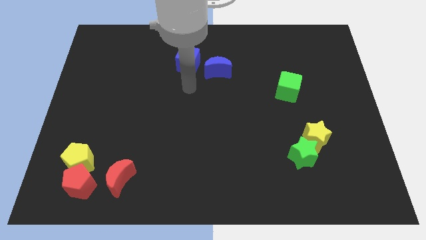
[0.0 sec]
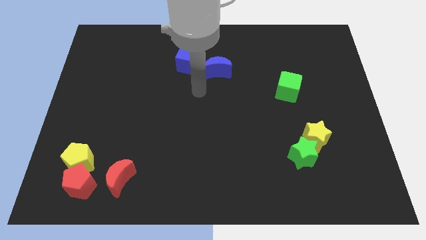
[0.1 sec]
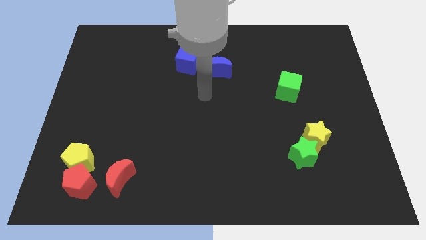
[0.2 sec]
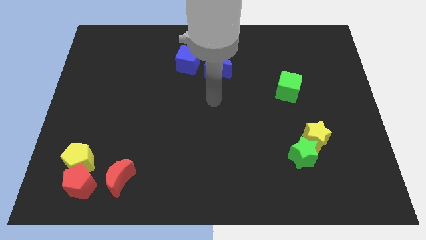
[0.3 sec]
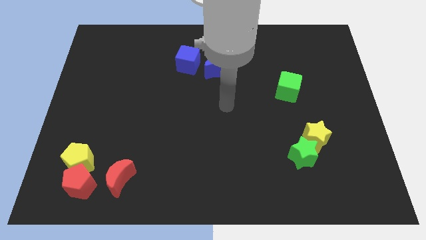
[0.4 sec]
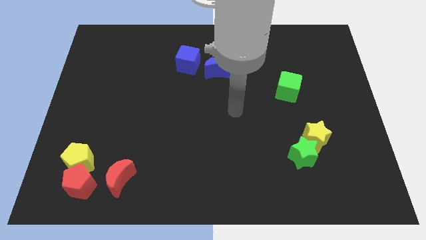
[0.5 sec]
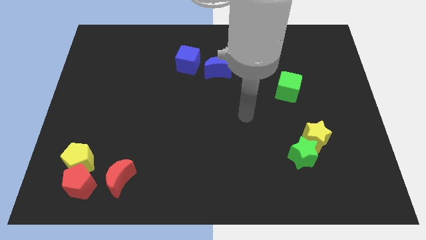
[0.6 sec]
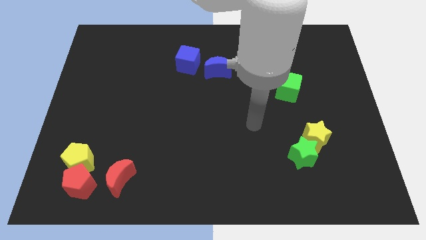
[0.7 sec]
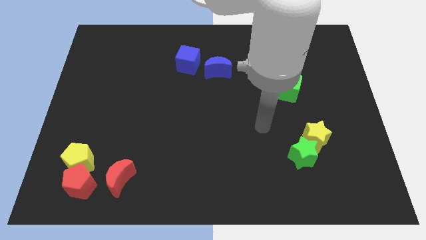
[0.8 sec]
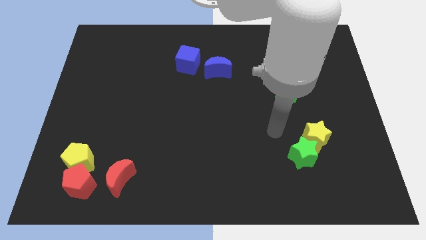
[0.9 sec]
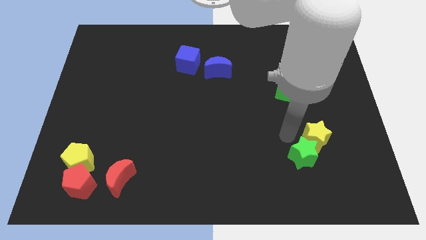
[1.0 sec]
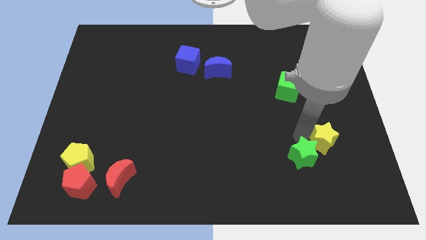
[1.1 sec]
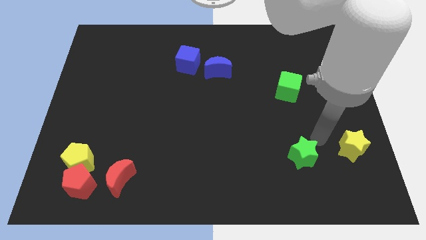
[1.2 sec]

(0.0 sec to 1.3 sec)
pull the green star apart from the yellow star

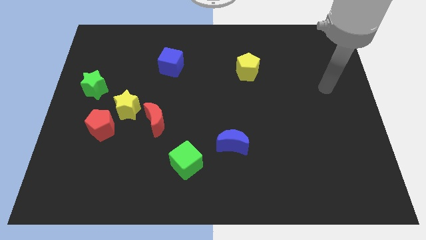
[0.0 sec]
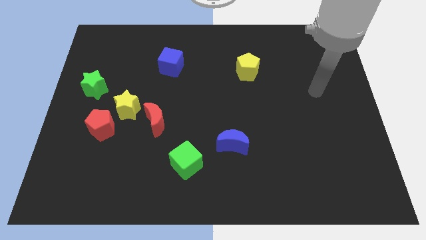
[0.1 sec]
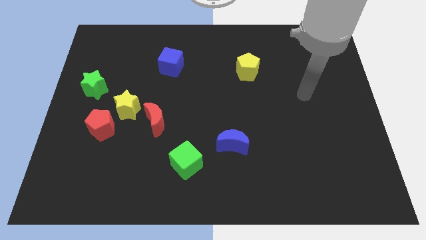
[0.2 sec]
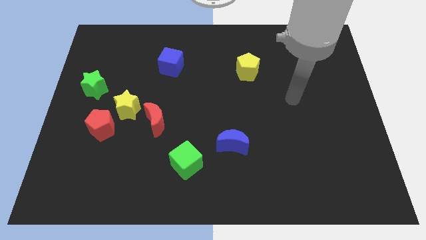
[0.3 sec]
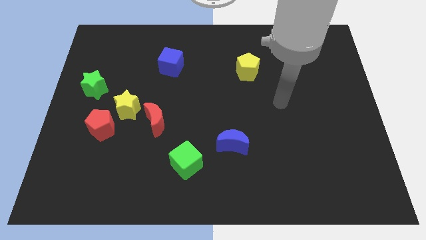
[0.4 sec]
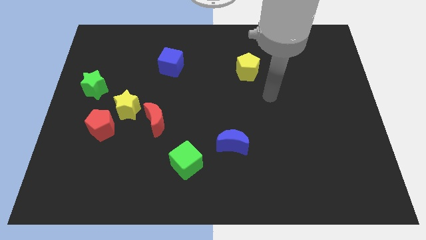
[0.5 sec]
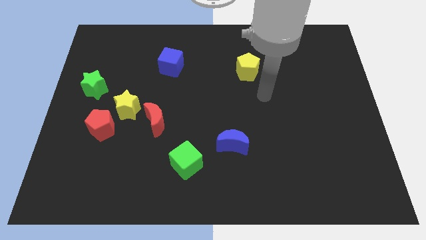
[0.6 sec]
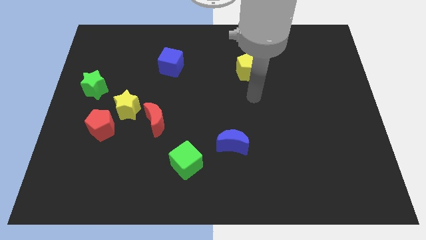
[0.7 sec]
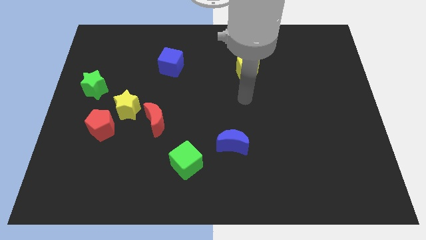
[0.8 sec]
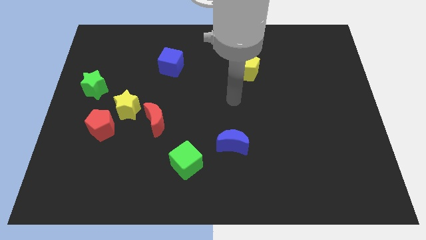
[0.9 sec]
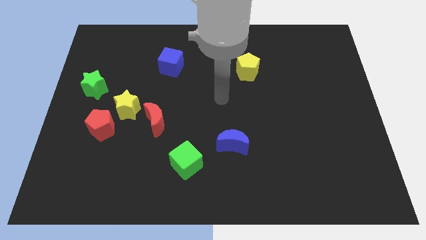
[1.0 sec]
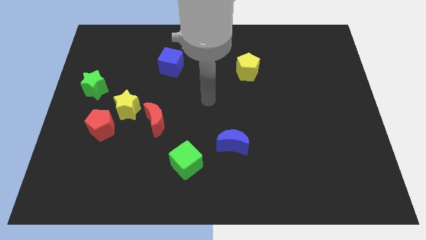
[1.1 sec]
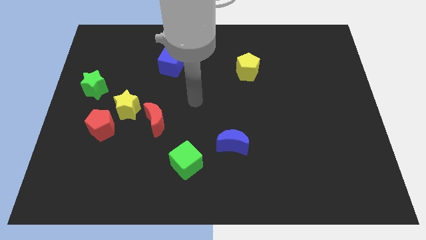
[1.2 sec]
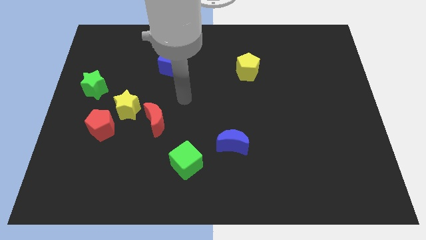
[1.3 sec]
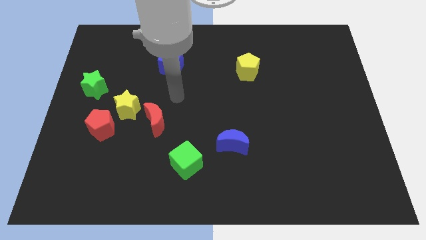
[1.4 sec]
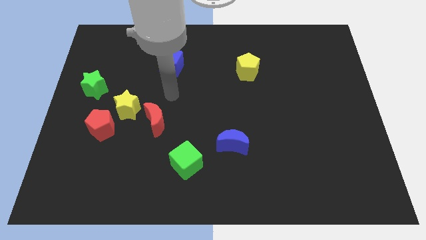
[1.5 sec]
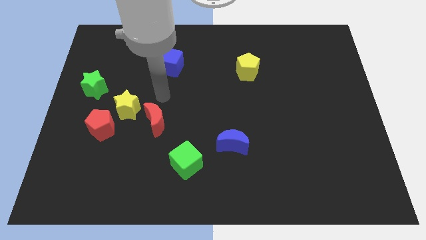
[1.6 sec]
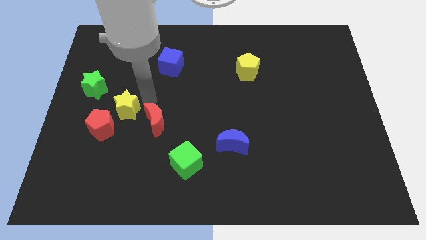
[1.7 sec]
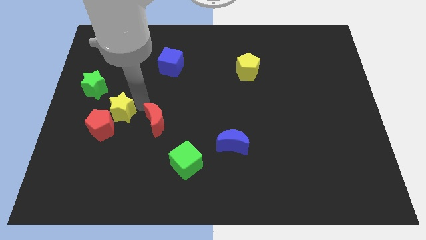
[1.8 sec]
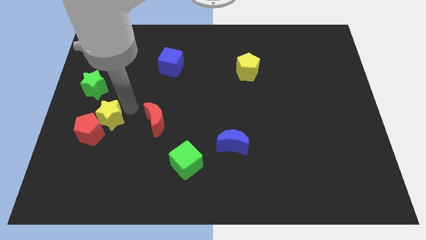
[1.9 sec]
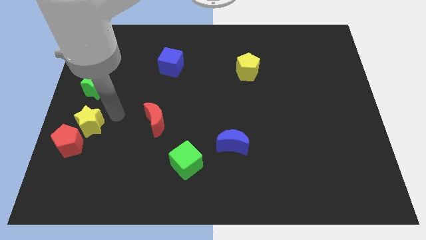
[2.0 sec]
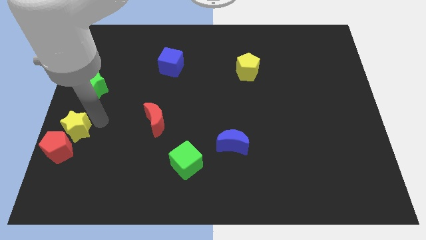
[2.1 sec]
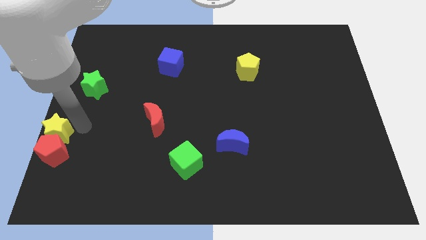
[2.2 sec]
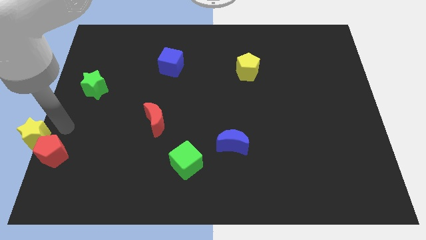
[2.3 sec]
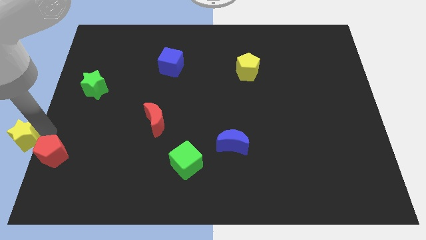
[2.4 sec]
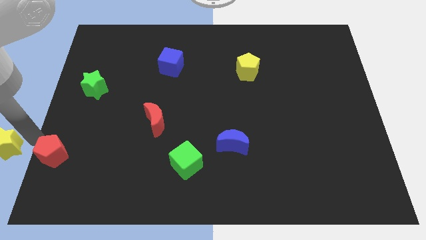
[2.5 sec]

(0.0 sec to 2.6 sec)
pull the red pentagon apart from the yellow star

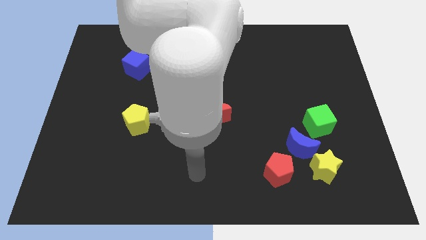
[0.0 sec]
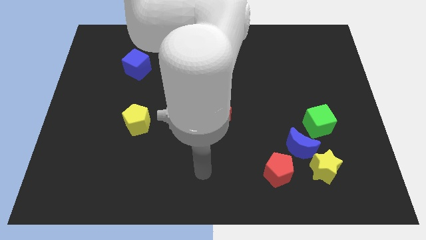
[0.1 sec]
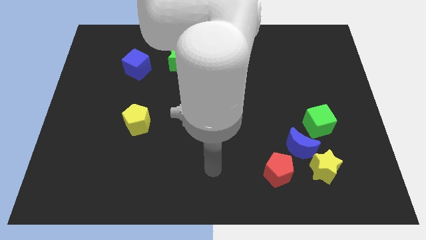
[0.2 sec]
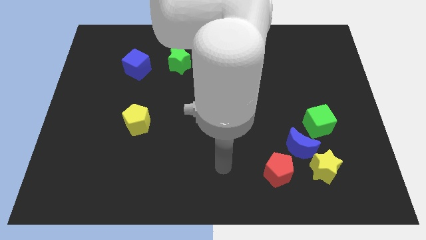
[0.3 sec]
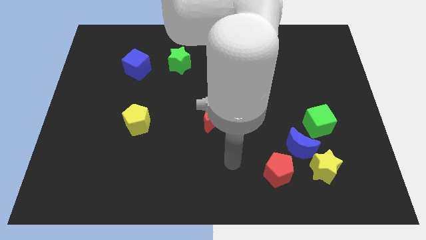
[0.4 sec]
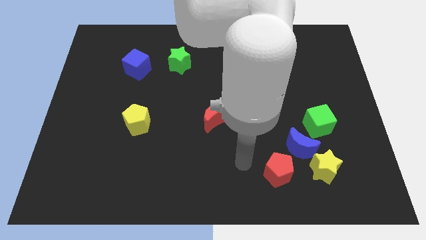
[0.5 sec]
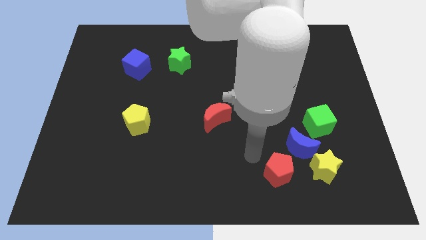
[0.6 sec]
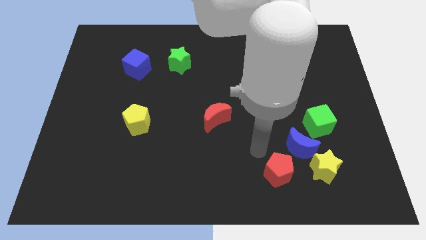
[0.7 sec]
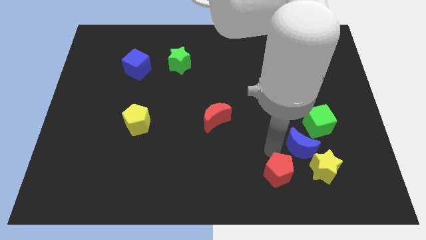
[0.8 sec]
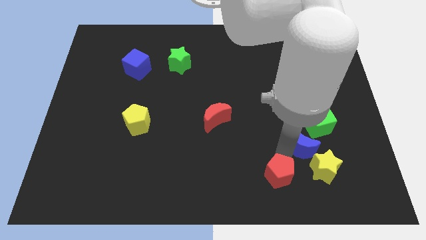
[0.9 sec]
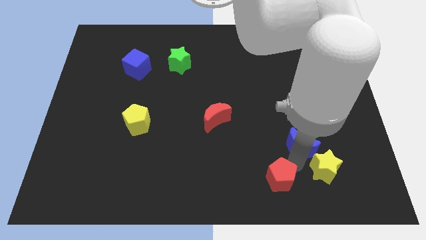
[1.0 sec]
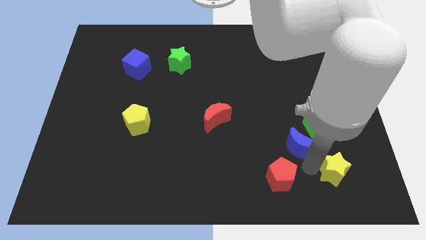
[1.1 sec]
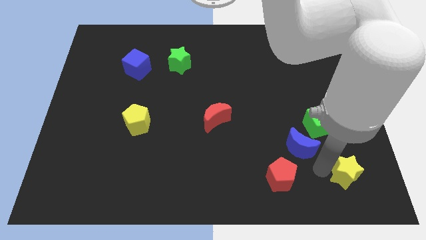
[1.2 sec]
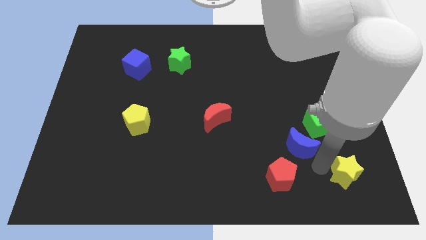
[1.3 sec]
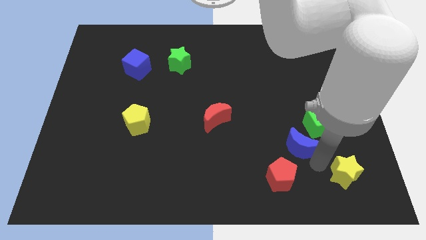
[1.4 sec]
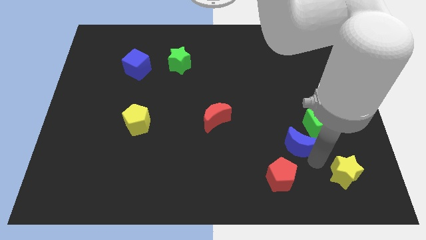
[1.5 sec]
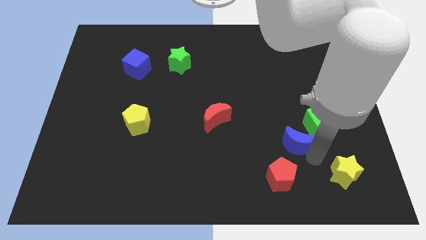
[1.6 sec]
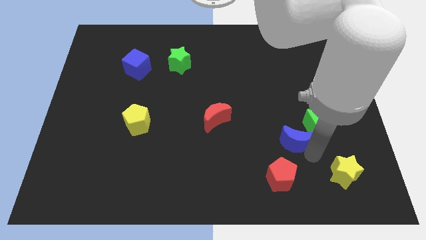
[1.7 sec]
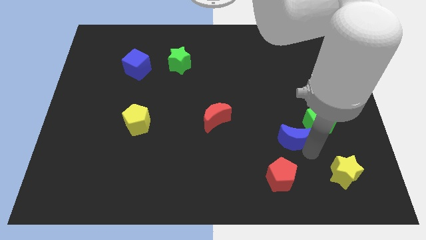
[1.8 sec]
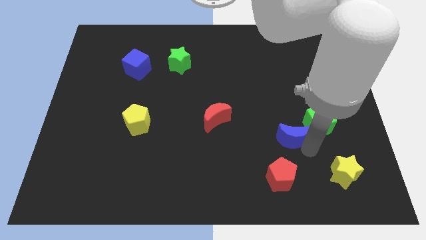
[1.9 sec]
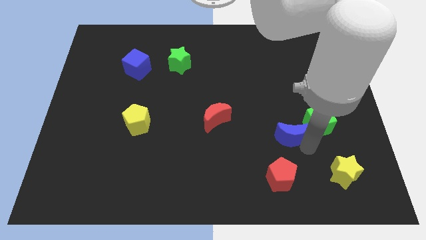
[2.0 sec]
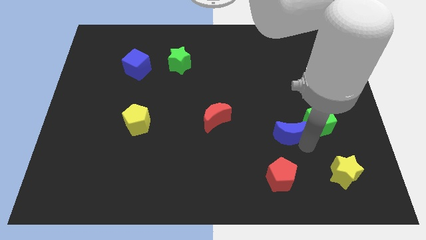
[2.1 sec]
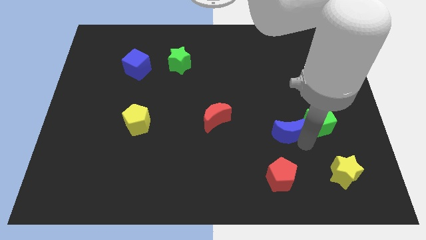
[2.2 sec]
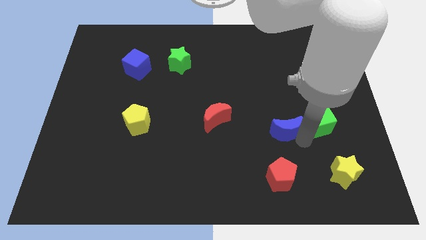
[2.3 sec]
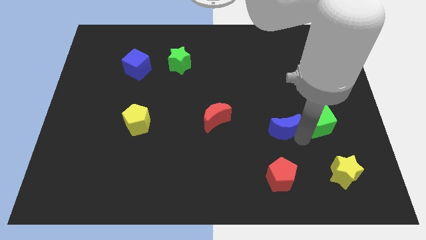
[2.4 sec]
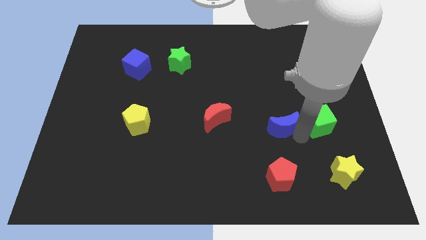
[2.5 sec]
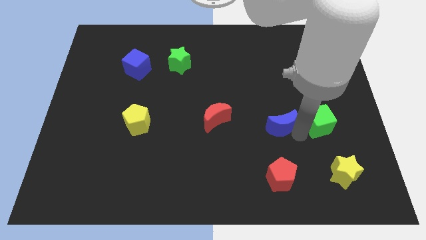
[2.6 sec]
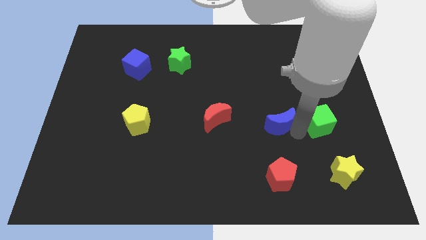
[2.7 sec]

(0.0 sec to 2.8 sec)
separate the blue moon from the clump

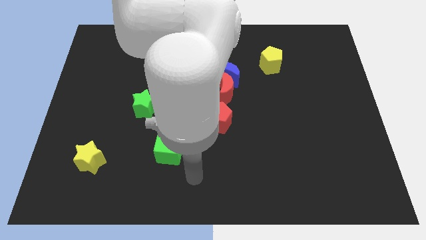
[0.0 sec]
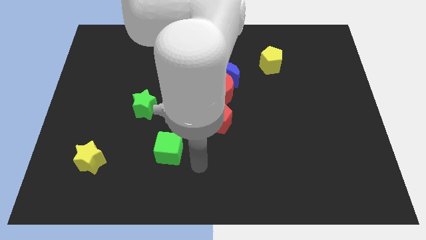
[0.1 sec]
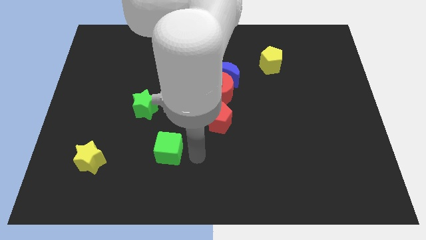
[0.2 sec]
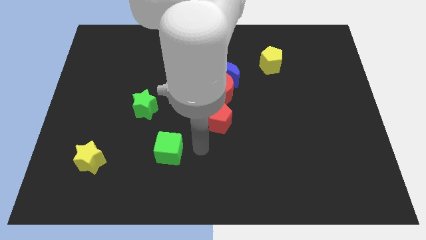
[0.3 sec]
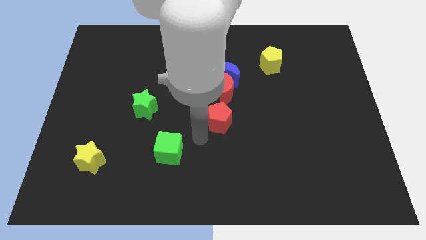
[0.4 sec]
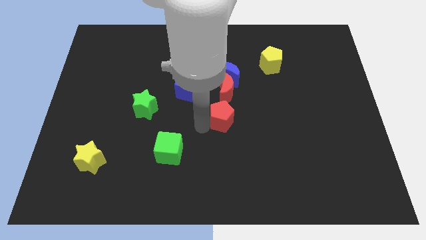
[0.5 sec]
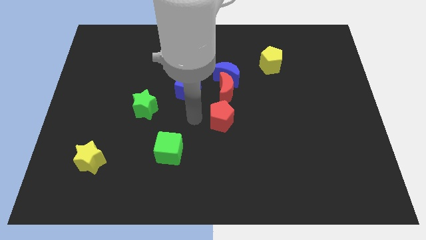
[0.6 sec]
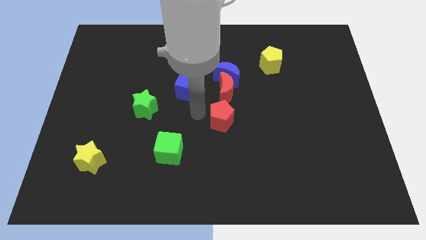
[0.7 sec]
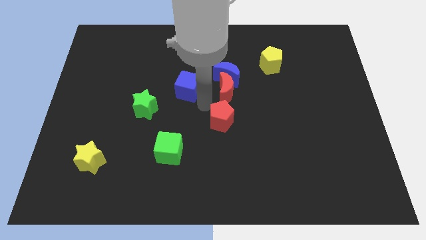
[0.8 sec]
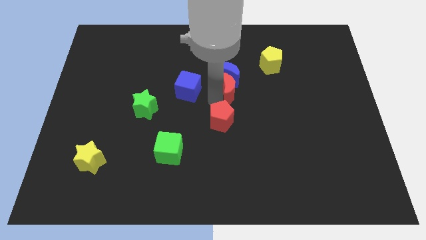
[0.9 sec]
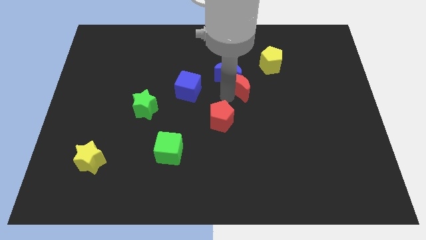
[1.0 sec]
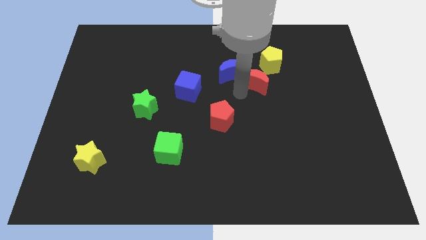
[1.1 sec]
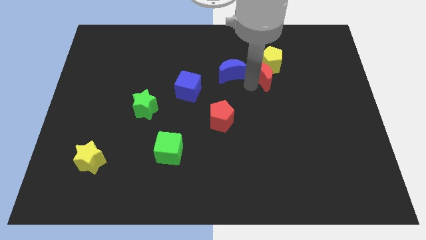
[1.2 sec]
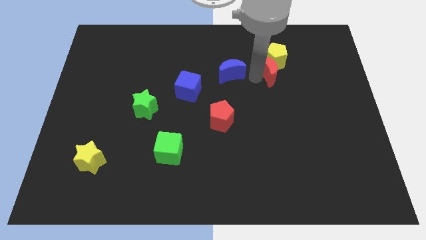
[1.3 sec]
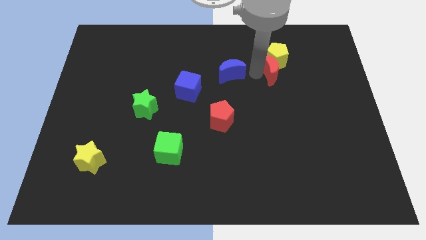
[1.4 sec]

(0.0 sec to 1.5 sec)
separate the blue moon from the red moon

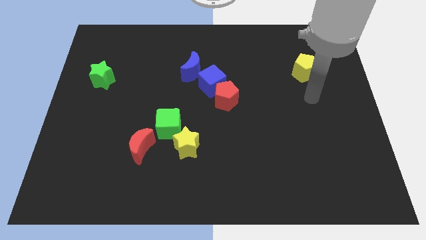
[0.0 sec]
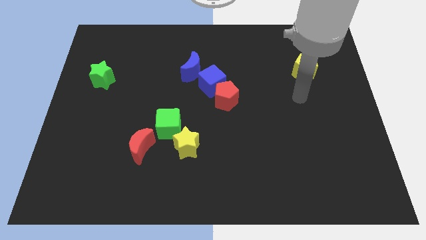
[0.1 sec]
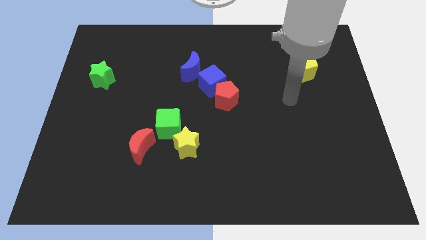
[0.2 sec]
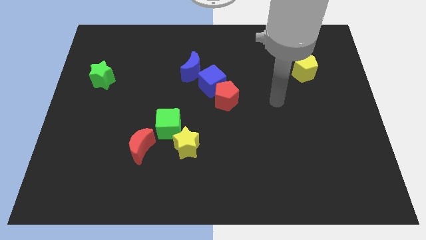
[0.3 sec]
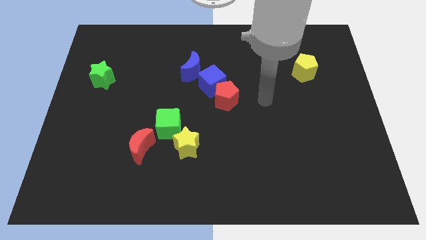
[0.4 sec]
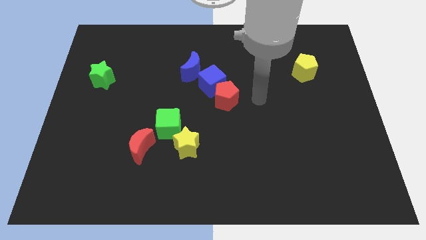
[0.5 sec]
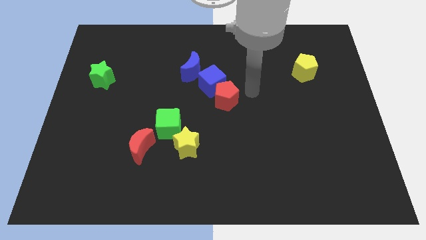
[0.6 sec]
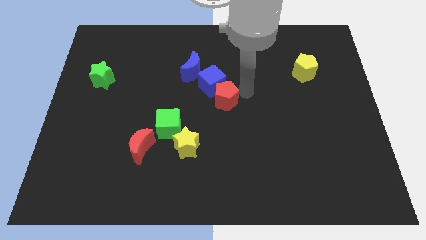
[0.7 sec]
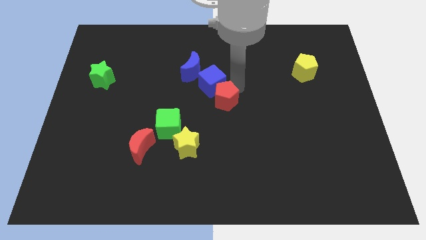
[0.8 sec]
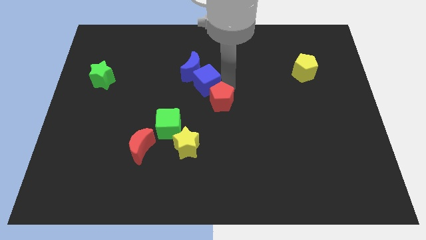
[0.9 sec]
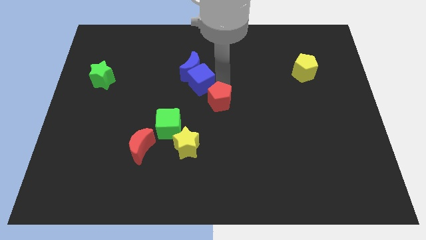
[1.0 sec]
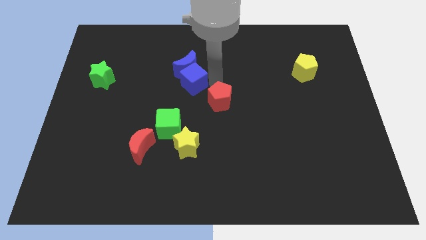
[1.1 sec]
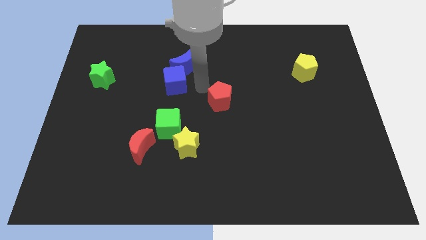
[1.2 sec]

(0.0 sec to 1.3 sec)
pull the red pentagon apart from the blue cube
